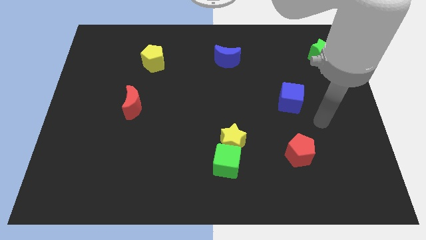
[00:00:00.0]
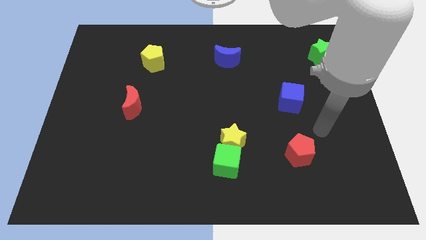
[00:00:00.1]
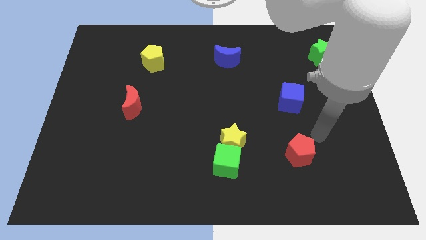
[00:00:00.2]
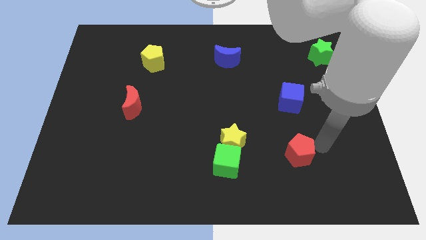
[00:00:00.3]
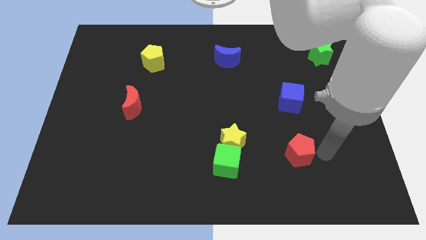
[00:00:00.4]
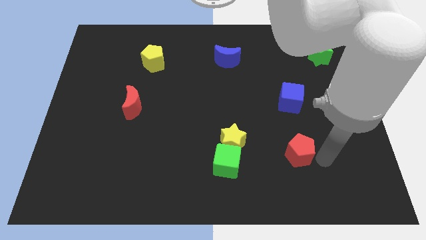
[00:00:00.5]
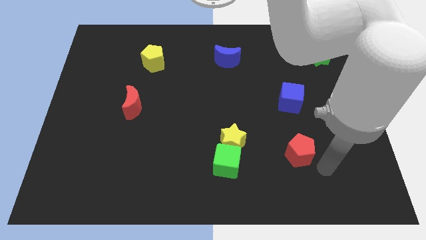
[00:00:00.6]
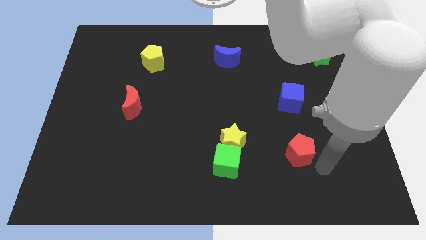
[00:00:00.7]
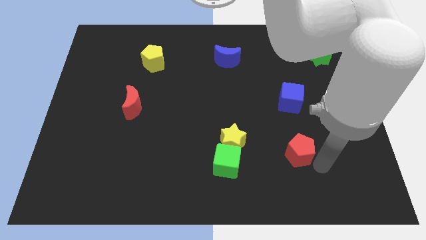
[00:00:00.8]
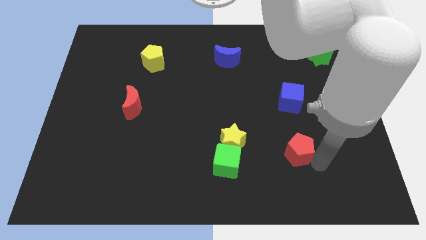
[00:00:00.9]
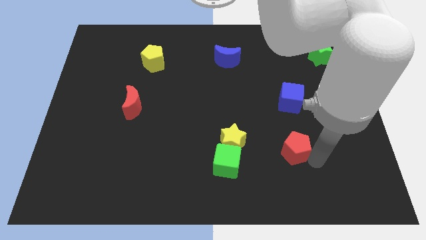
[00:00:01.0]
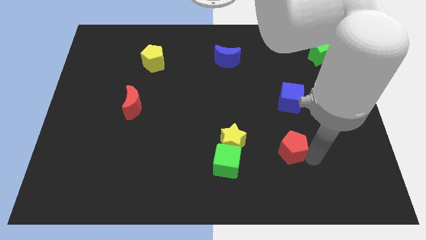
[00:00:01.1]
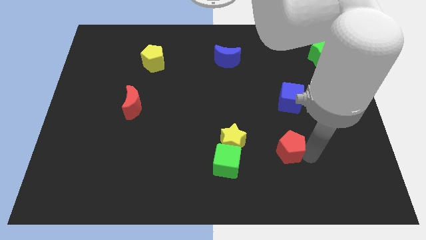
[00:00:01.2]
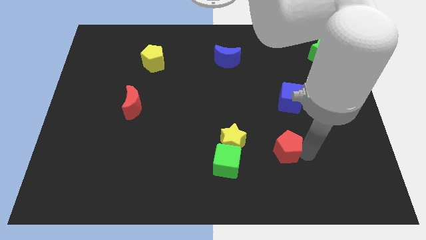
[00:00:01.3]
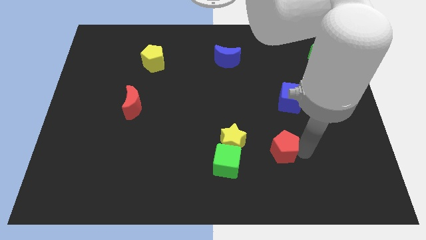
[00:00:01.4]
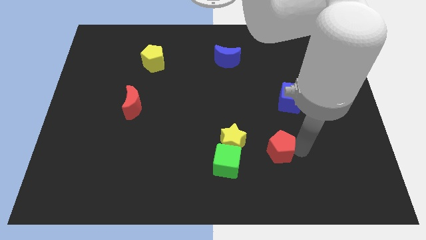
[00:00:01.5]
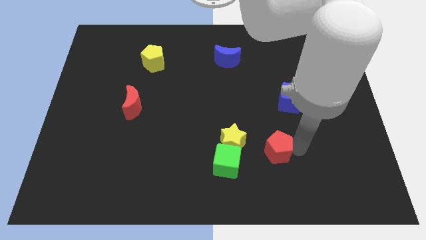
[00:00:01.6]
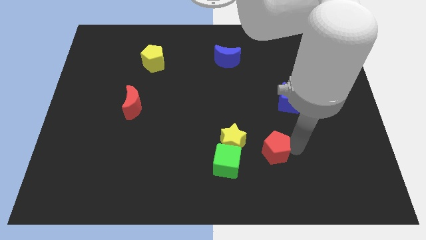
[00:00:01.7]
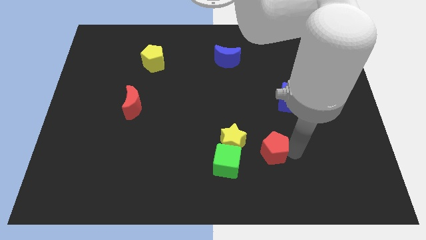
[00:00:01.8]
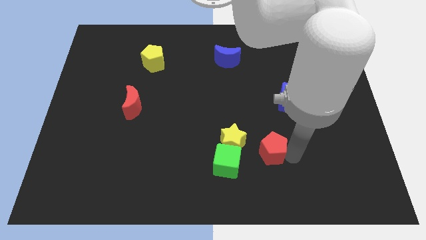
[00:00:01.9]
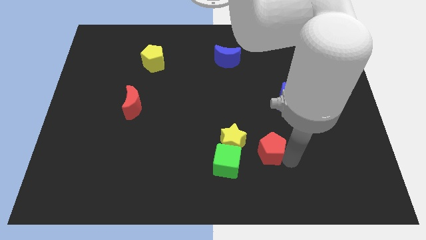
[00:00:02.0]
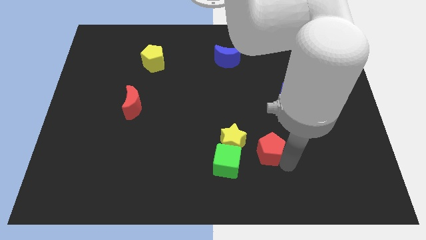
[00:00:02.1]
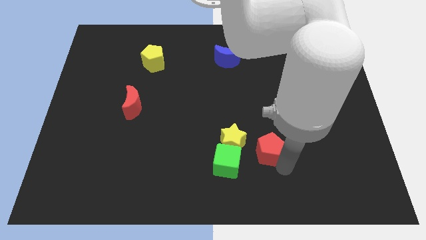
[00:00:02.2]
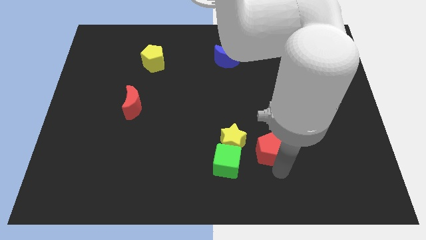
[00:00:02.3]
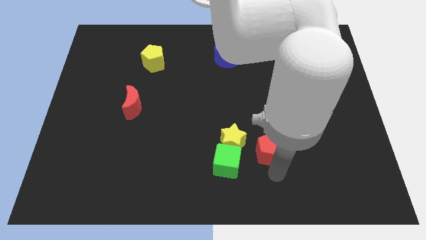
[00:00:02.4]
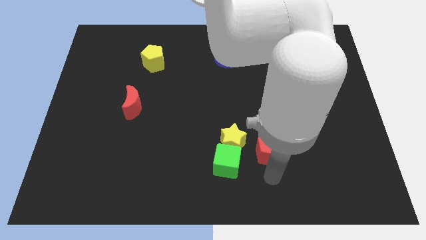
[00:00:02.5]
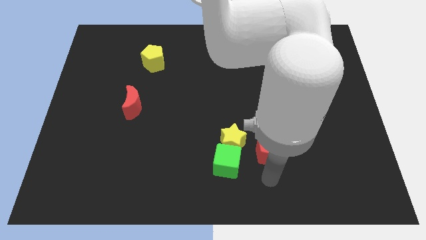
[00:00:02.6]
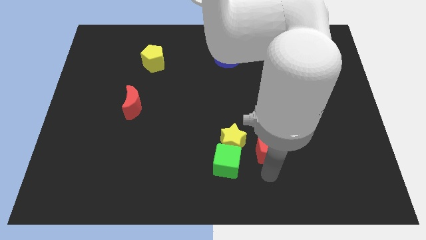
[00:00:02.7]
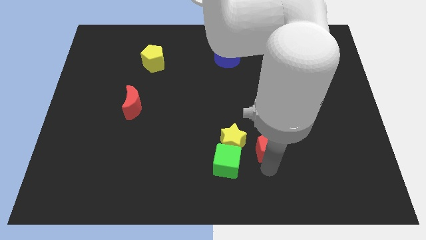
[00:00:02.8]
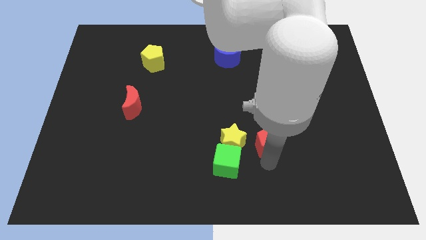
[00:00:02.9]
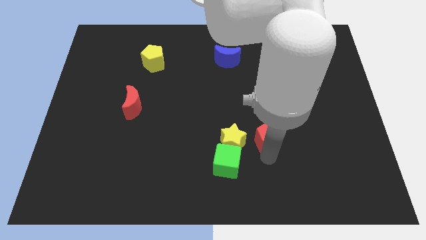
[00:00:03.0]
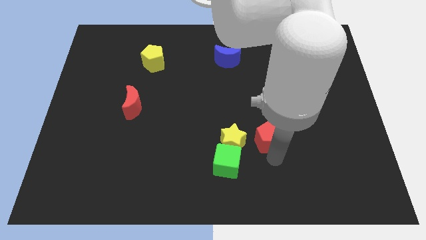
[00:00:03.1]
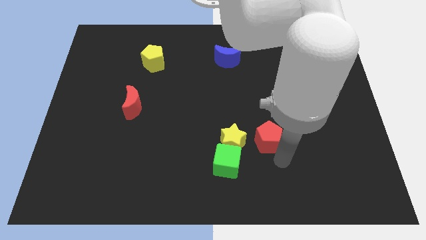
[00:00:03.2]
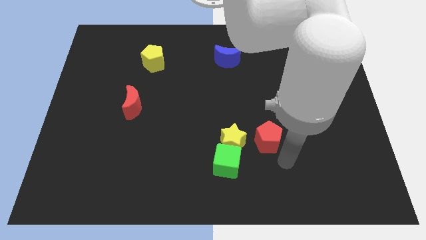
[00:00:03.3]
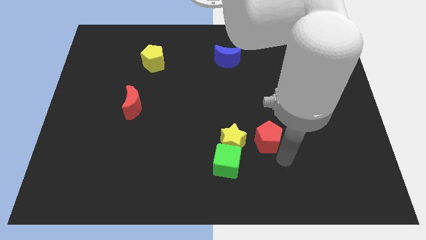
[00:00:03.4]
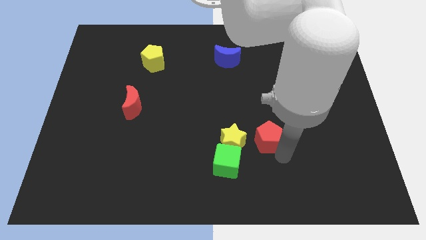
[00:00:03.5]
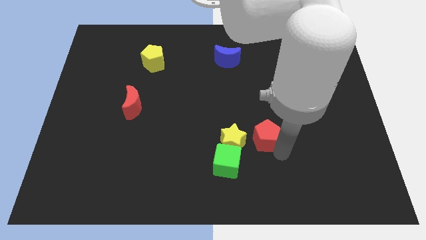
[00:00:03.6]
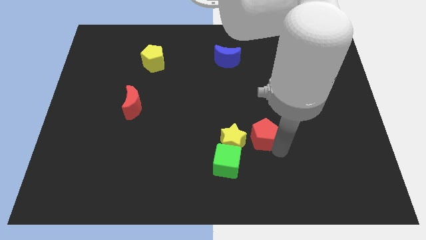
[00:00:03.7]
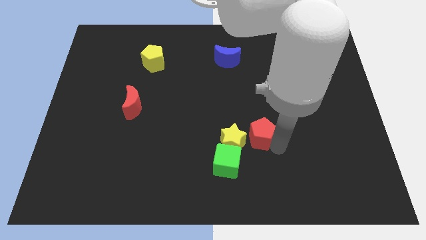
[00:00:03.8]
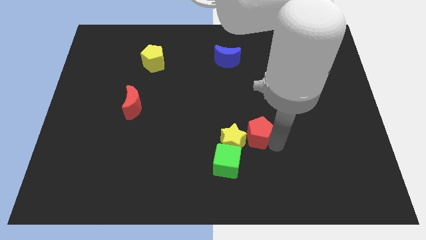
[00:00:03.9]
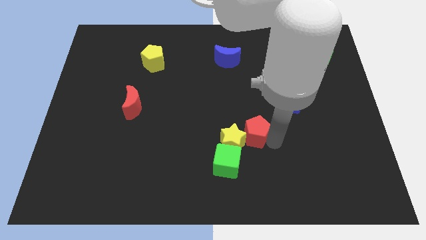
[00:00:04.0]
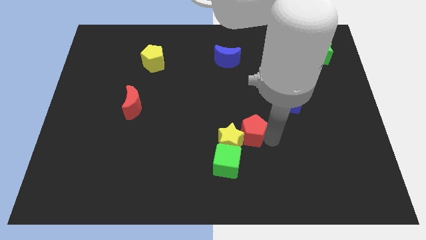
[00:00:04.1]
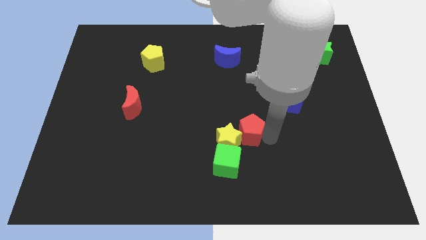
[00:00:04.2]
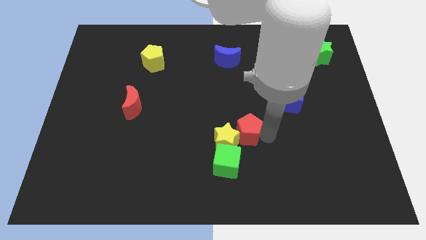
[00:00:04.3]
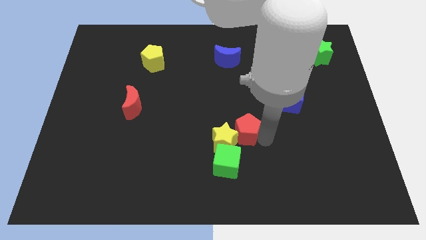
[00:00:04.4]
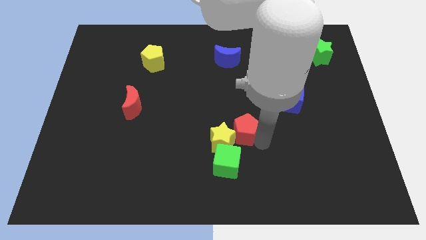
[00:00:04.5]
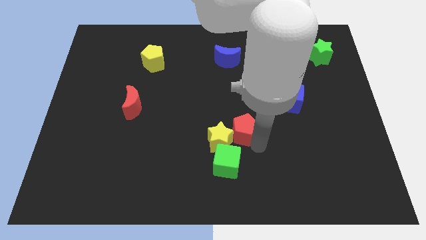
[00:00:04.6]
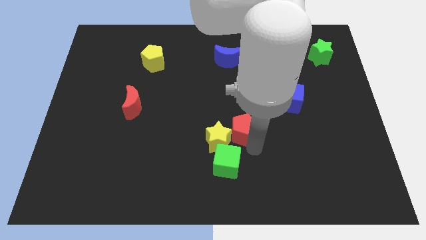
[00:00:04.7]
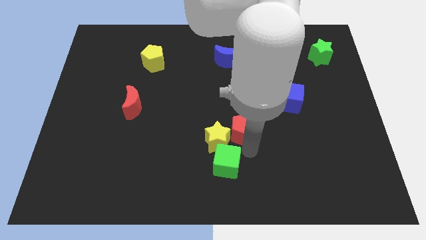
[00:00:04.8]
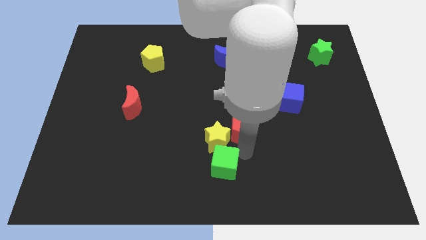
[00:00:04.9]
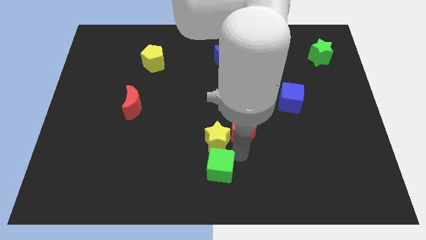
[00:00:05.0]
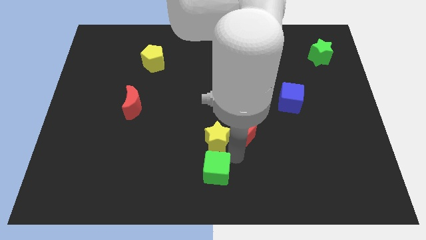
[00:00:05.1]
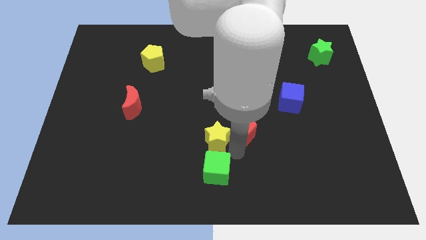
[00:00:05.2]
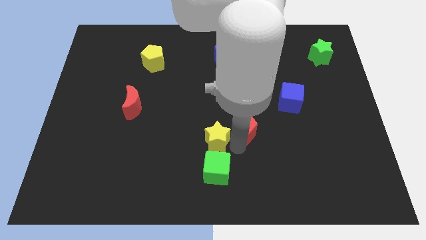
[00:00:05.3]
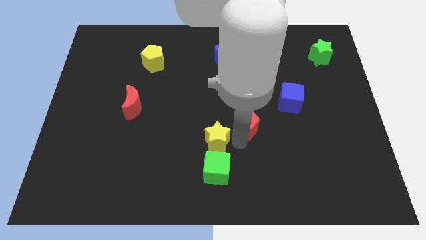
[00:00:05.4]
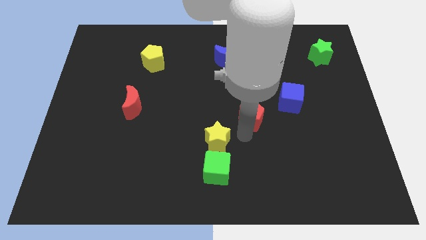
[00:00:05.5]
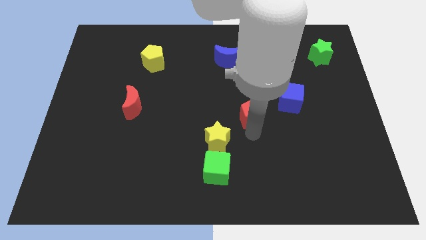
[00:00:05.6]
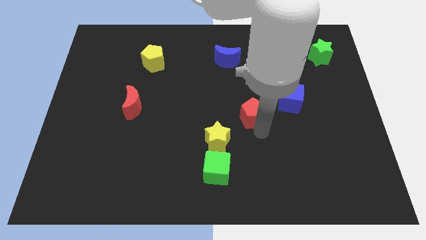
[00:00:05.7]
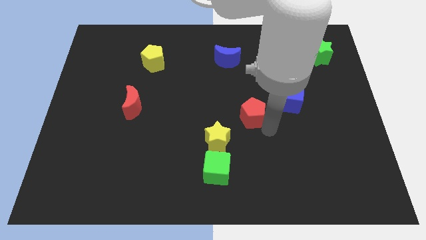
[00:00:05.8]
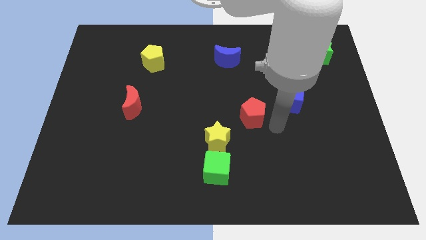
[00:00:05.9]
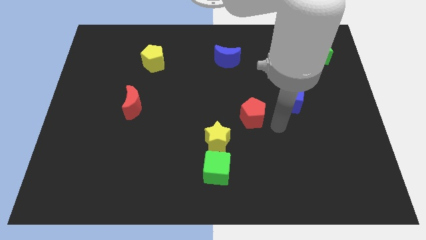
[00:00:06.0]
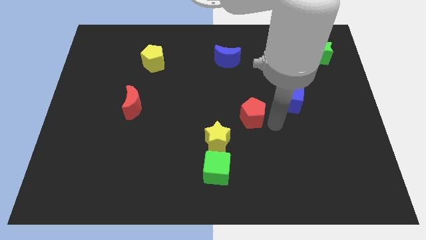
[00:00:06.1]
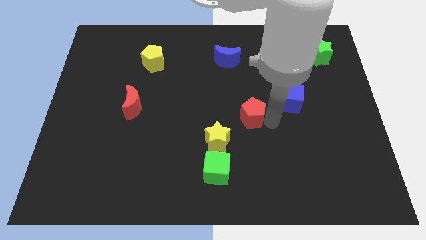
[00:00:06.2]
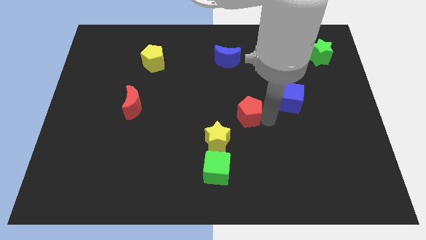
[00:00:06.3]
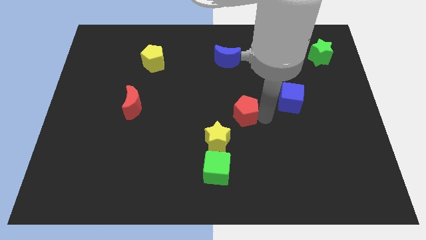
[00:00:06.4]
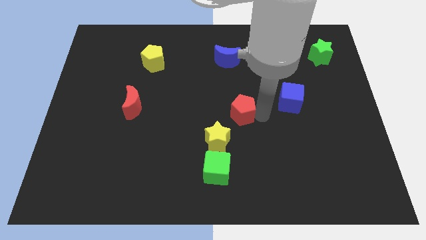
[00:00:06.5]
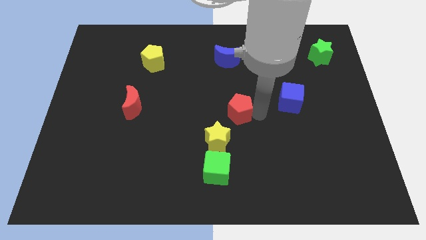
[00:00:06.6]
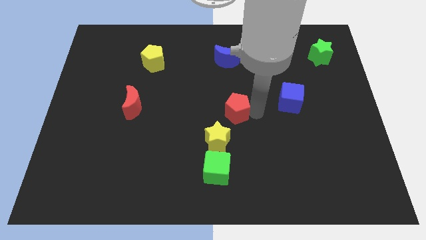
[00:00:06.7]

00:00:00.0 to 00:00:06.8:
move the red pentagon to the top side of the yellow star

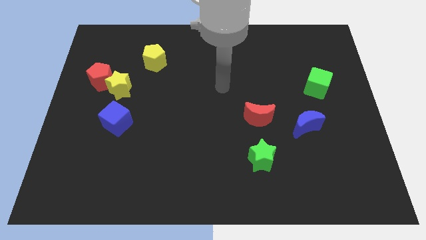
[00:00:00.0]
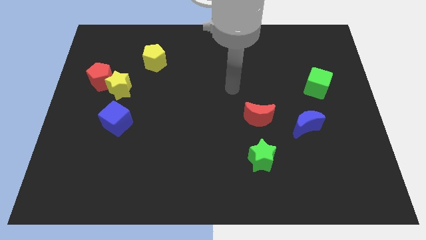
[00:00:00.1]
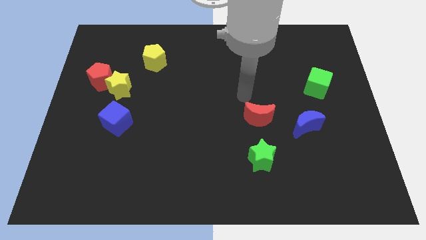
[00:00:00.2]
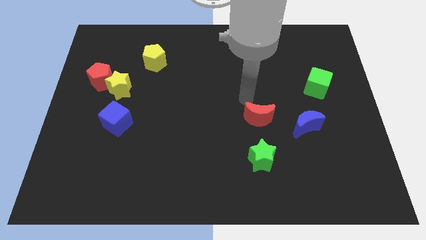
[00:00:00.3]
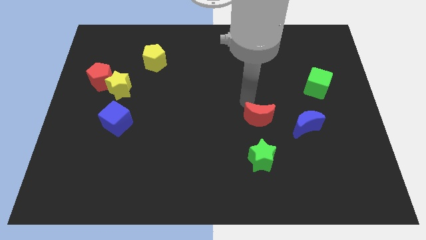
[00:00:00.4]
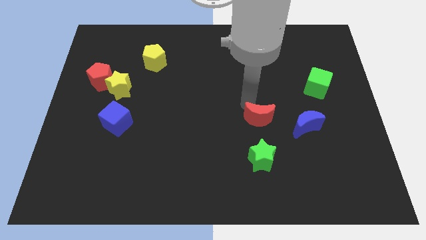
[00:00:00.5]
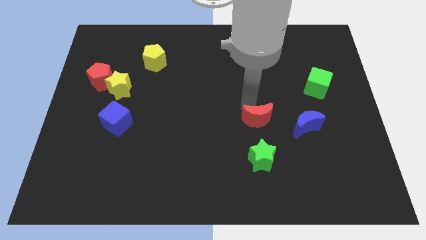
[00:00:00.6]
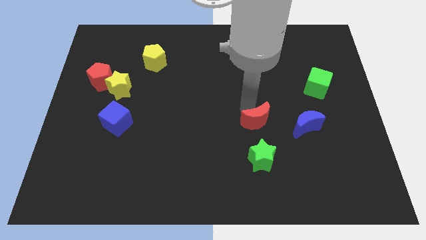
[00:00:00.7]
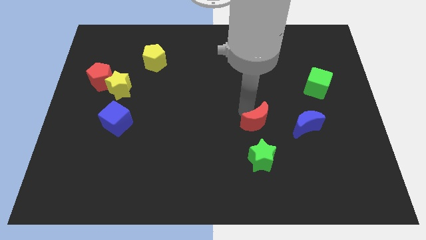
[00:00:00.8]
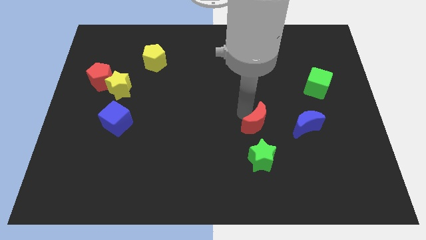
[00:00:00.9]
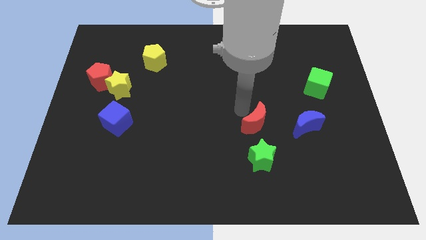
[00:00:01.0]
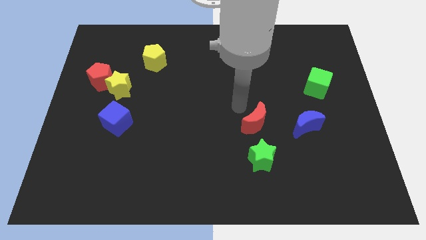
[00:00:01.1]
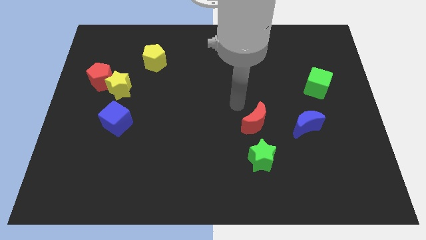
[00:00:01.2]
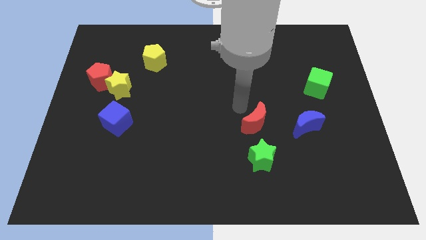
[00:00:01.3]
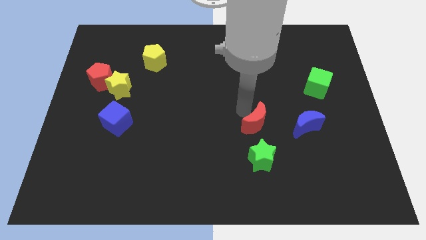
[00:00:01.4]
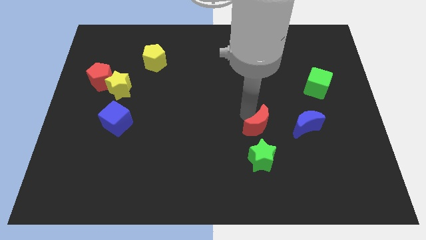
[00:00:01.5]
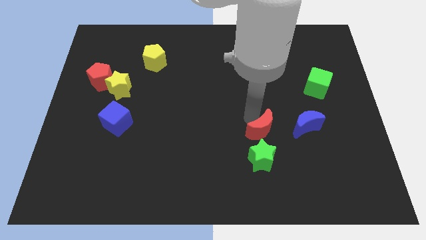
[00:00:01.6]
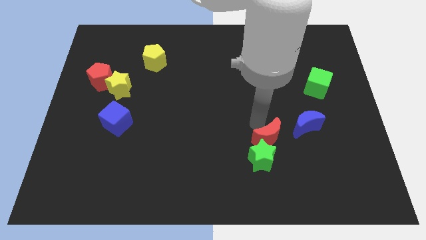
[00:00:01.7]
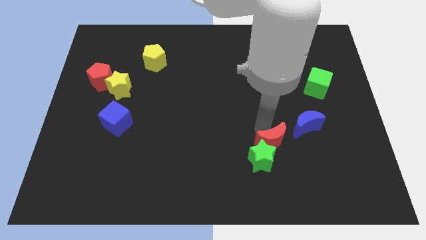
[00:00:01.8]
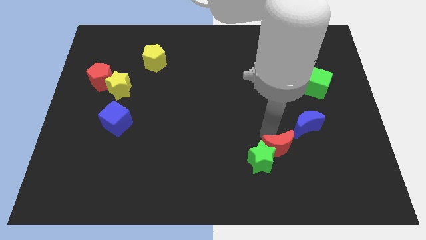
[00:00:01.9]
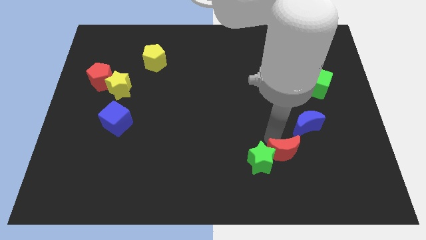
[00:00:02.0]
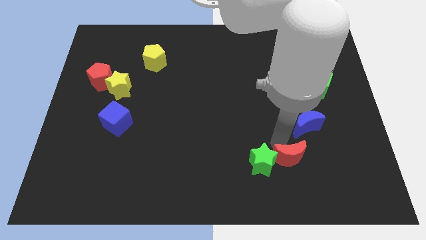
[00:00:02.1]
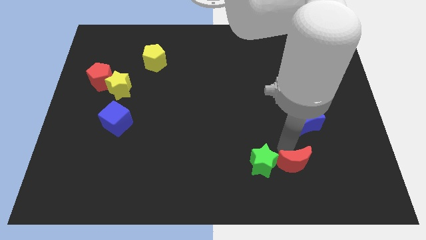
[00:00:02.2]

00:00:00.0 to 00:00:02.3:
push the red moon to the bottom right of the green star
